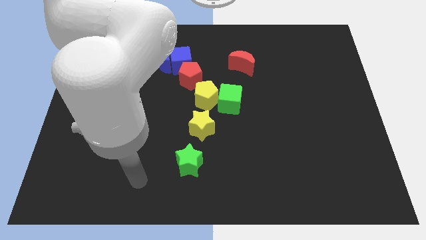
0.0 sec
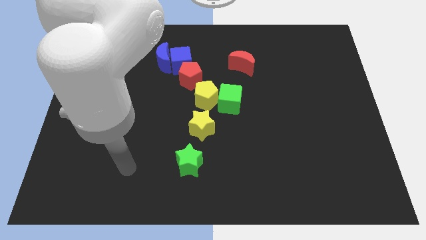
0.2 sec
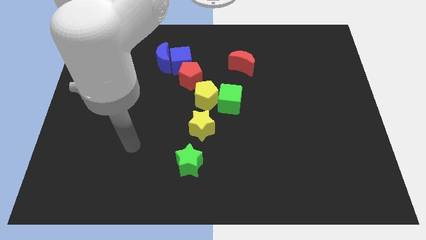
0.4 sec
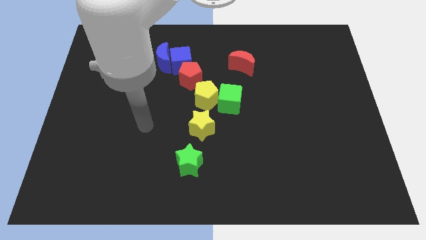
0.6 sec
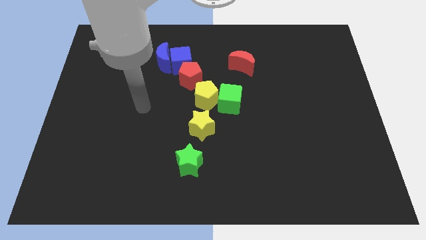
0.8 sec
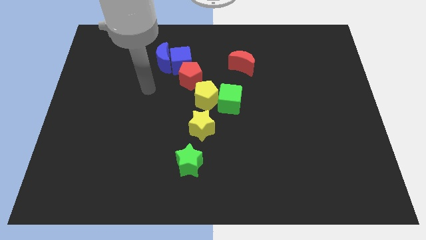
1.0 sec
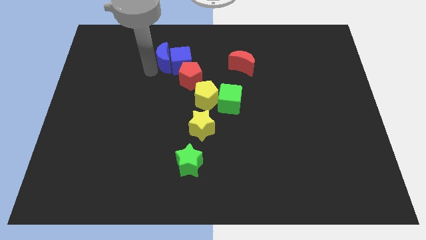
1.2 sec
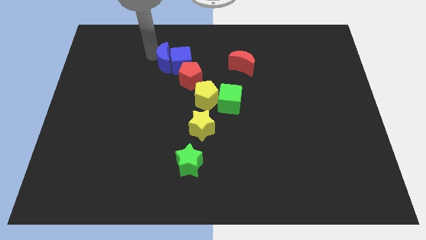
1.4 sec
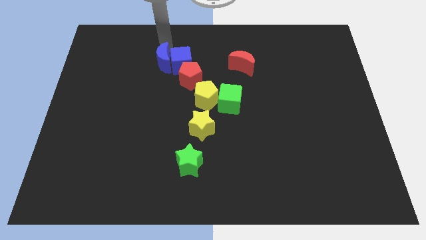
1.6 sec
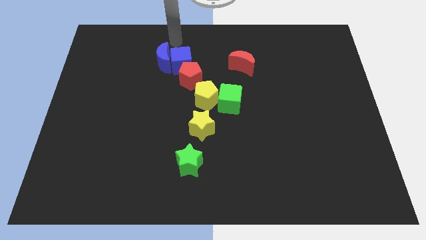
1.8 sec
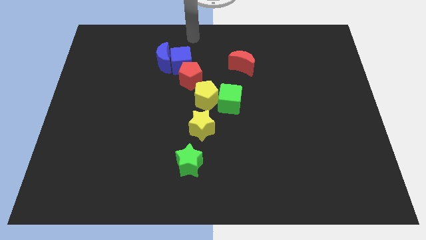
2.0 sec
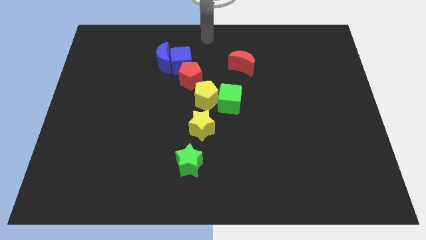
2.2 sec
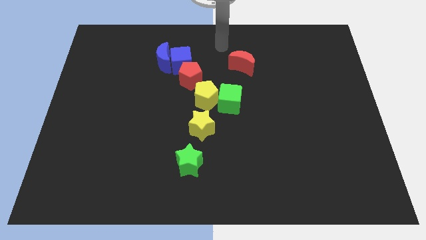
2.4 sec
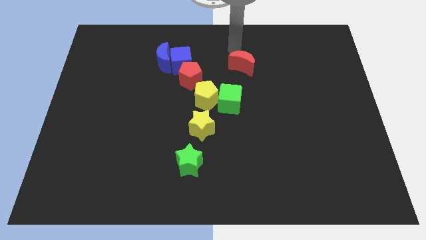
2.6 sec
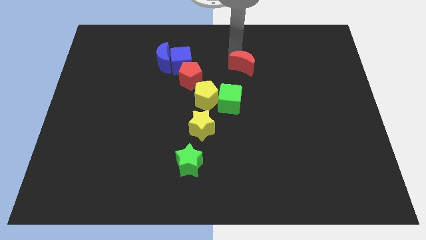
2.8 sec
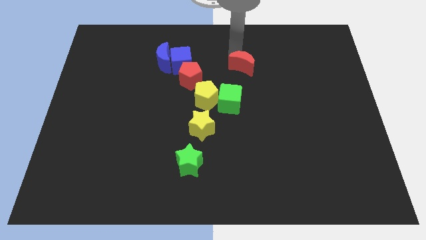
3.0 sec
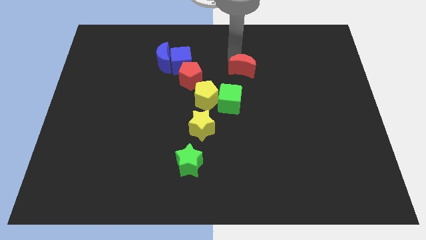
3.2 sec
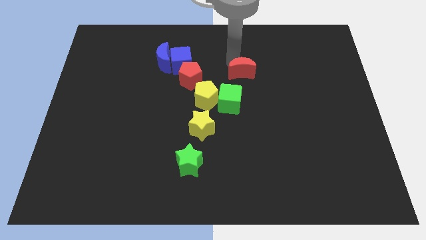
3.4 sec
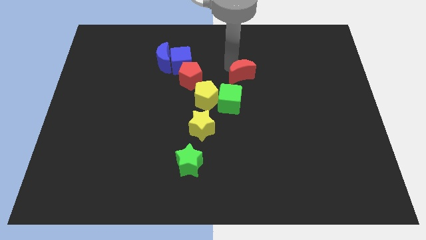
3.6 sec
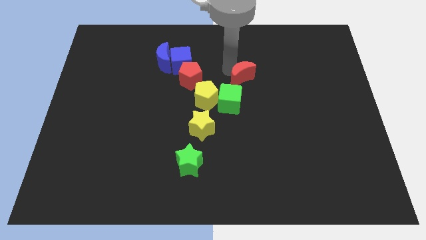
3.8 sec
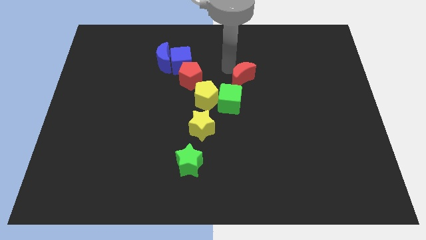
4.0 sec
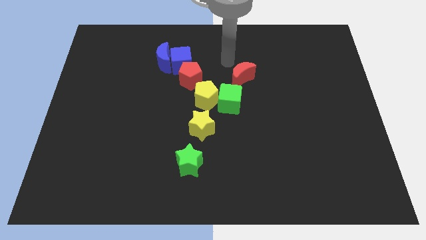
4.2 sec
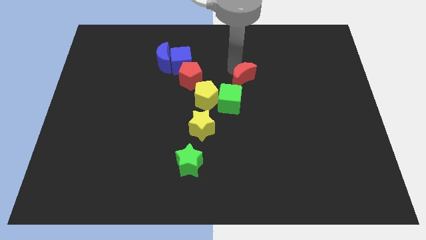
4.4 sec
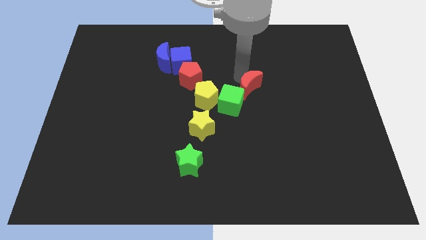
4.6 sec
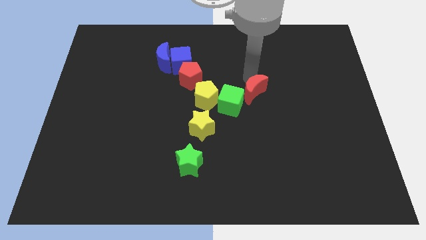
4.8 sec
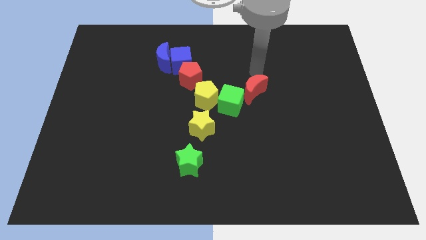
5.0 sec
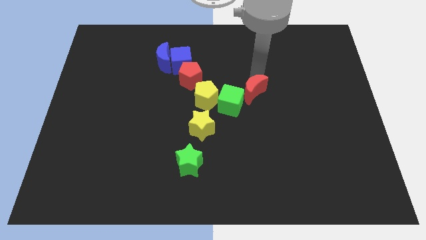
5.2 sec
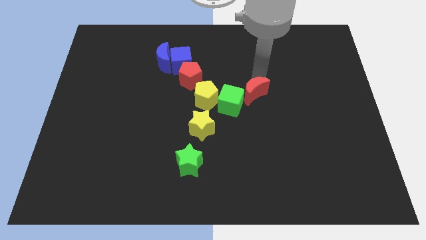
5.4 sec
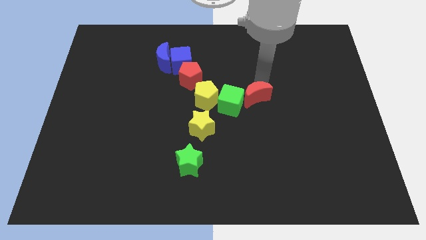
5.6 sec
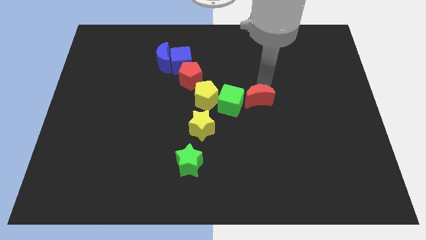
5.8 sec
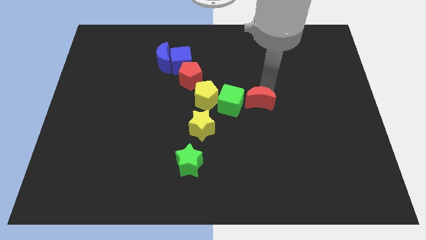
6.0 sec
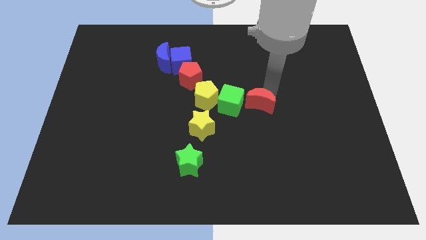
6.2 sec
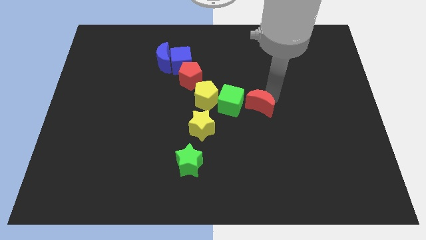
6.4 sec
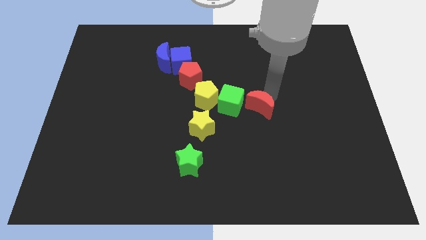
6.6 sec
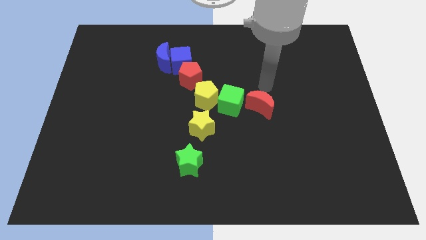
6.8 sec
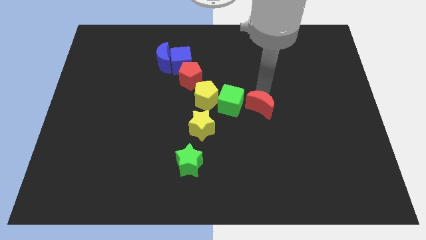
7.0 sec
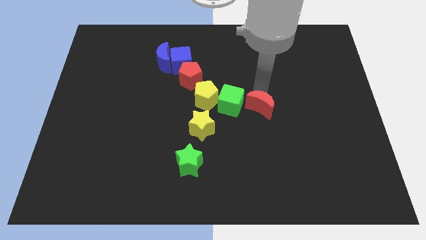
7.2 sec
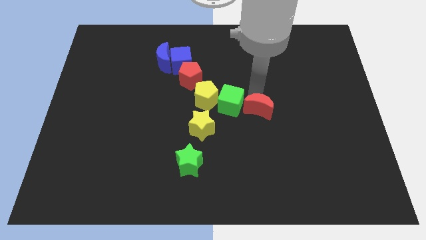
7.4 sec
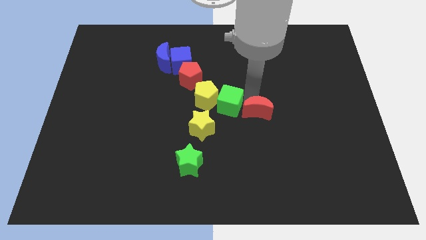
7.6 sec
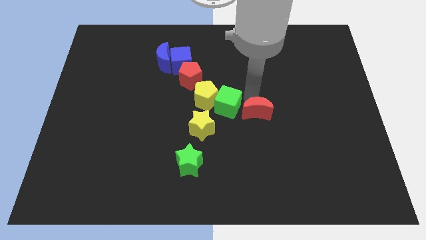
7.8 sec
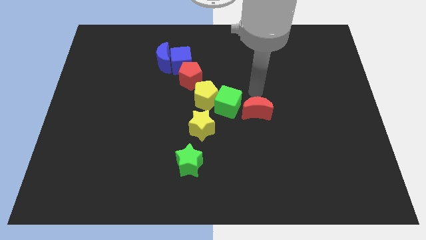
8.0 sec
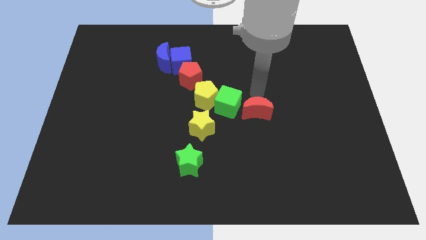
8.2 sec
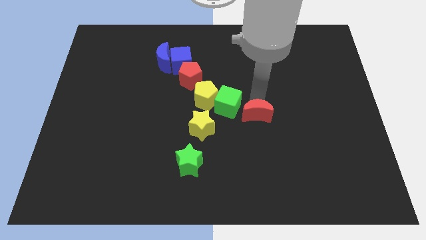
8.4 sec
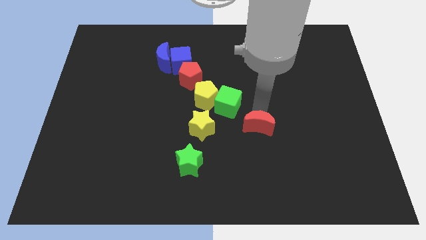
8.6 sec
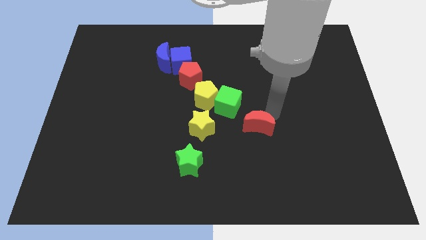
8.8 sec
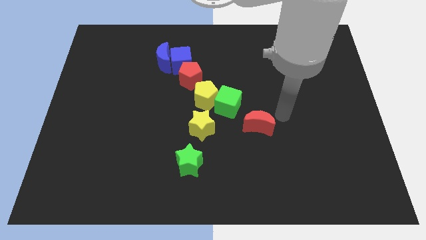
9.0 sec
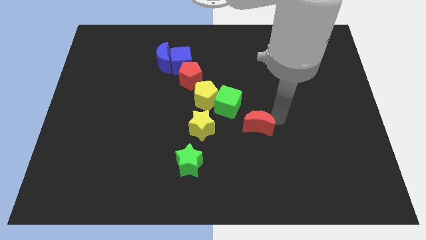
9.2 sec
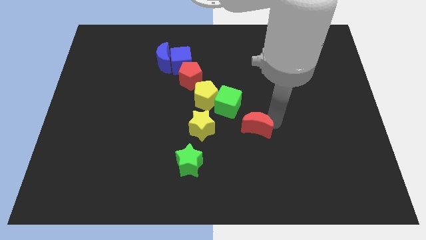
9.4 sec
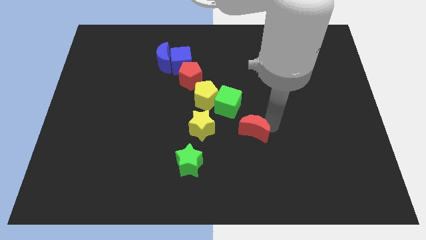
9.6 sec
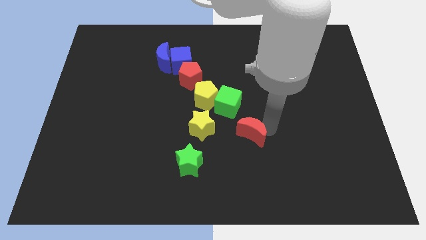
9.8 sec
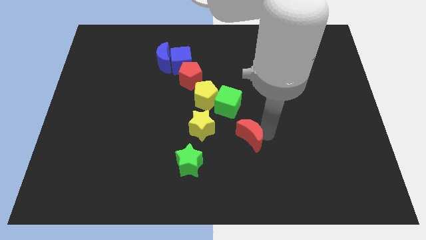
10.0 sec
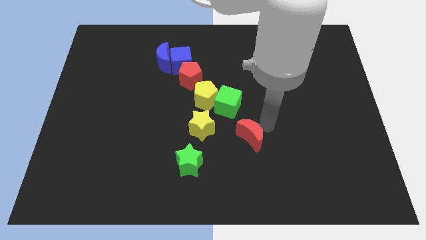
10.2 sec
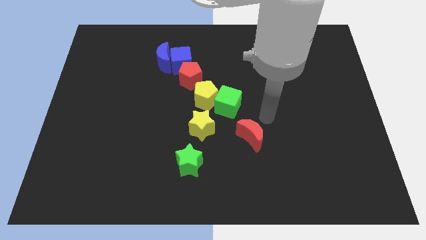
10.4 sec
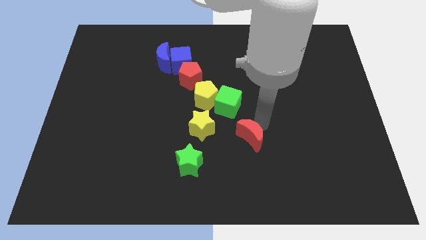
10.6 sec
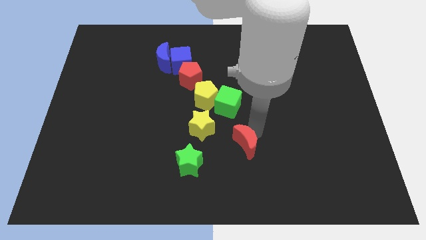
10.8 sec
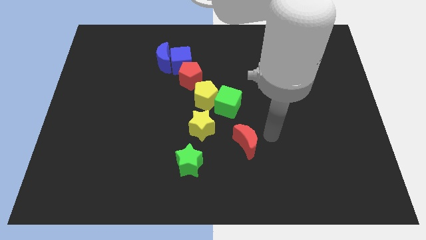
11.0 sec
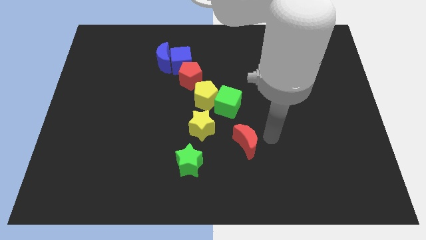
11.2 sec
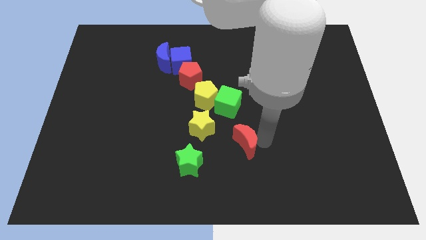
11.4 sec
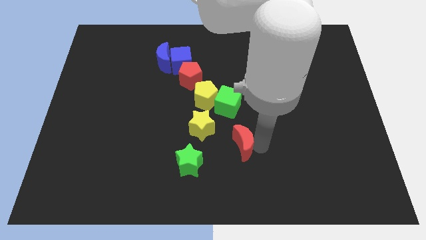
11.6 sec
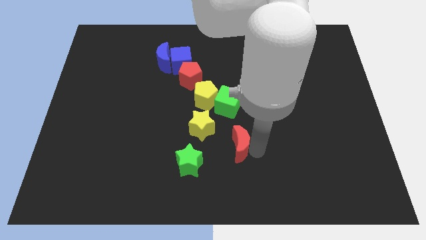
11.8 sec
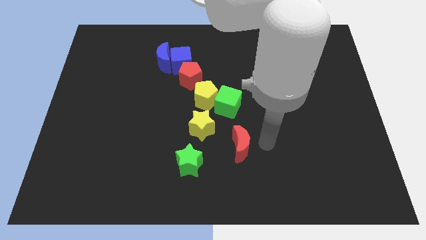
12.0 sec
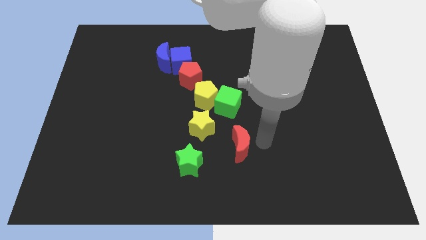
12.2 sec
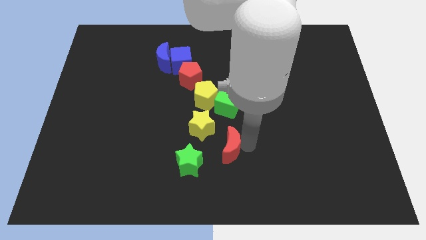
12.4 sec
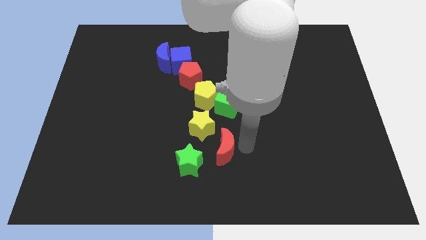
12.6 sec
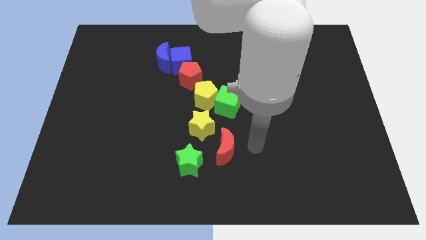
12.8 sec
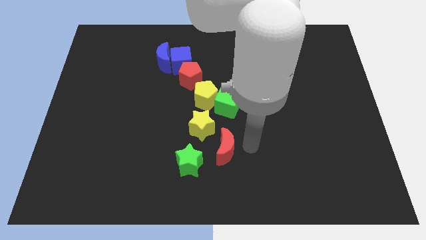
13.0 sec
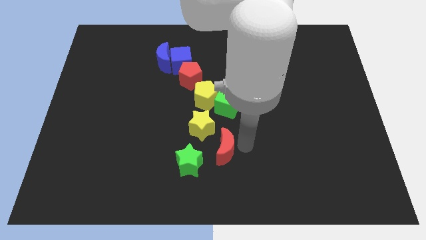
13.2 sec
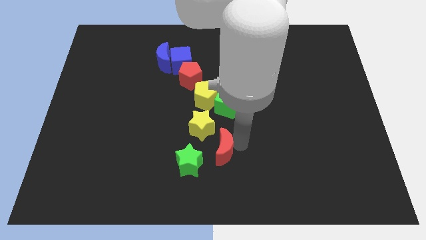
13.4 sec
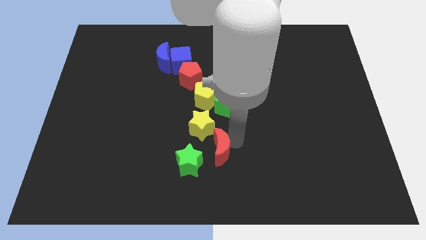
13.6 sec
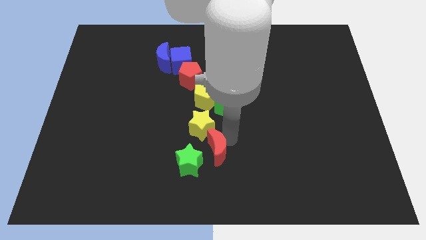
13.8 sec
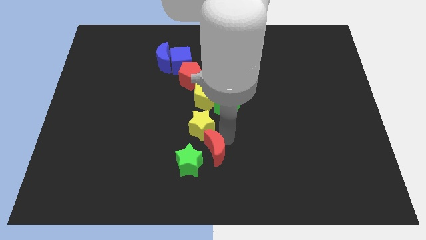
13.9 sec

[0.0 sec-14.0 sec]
move the red moon next to the green star
